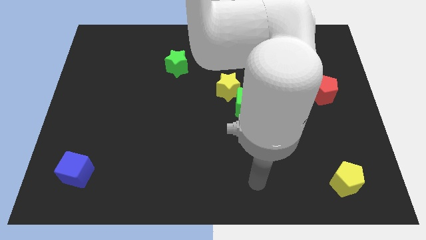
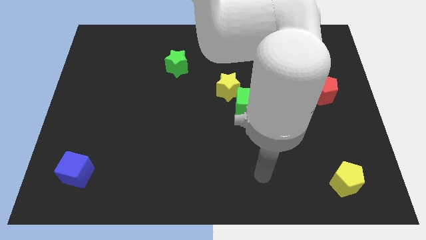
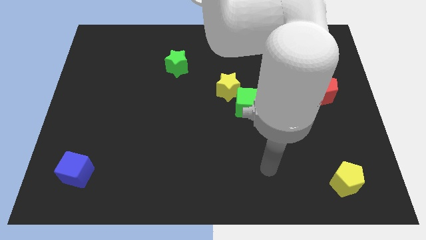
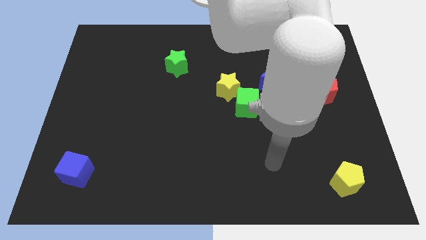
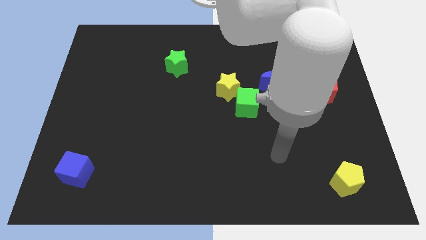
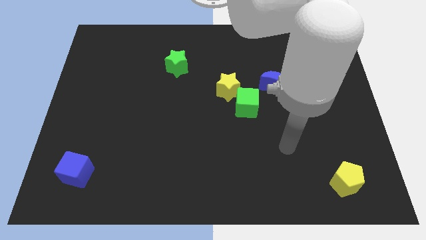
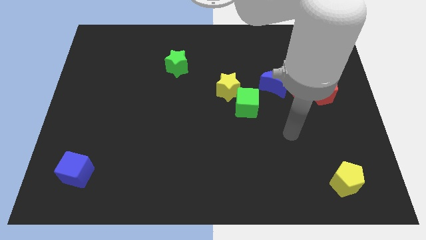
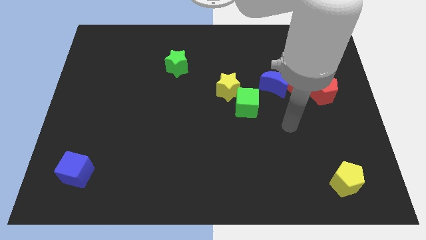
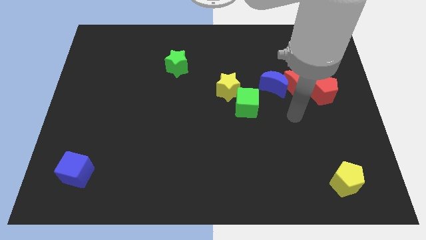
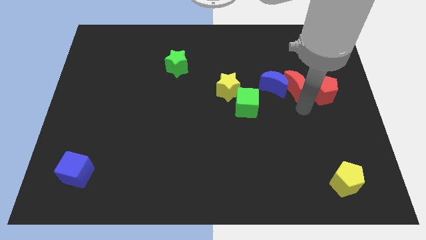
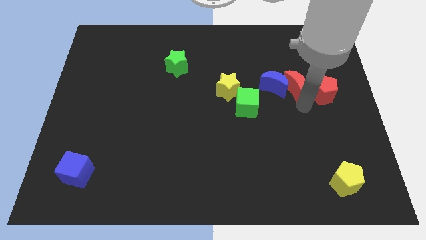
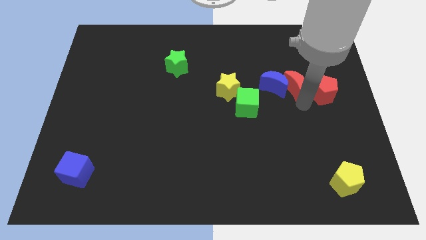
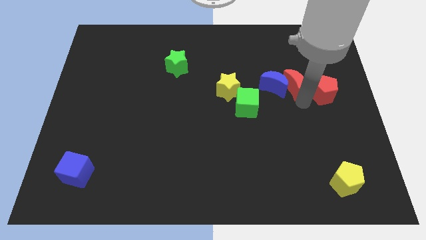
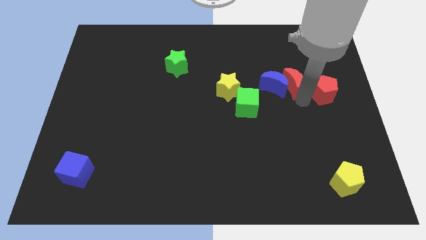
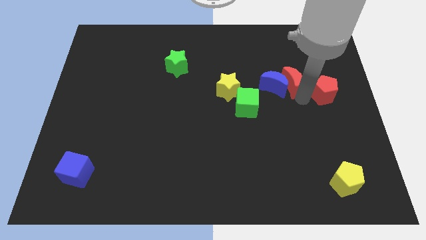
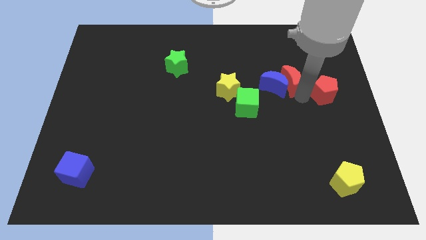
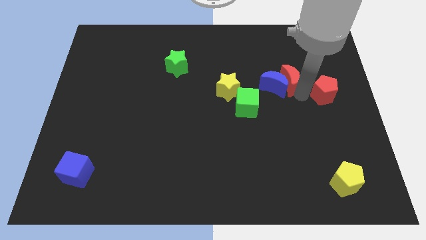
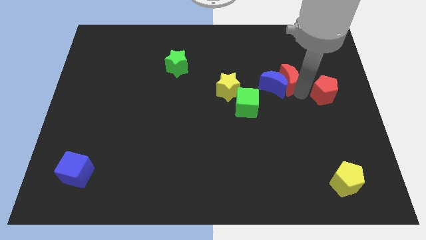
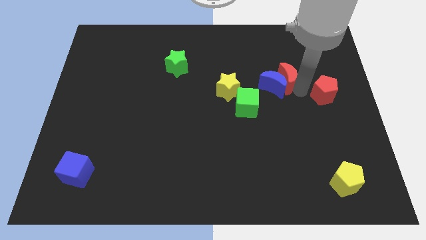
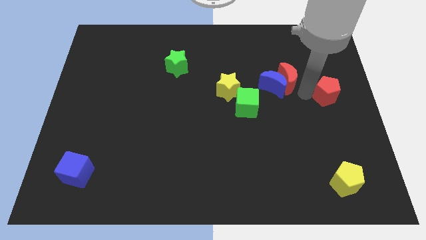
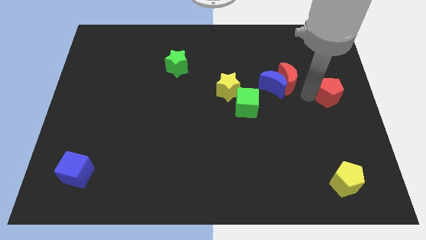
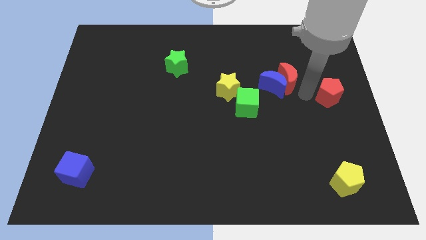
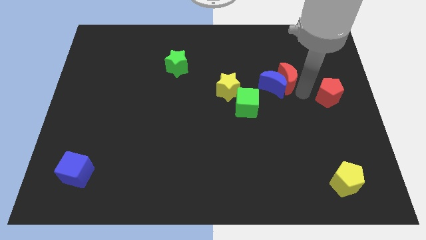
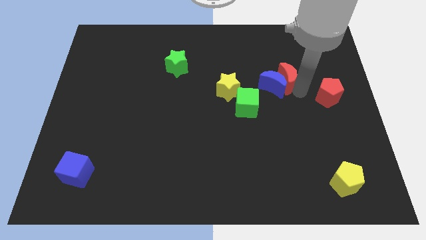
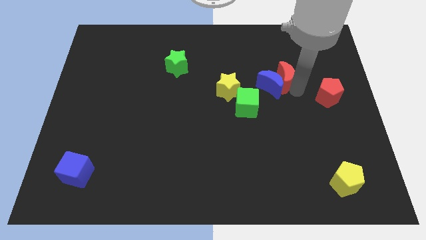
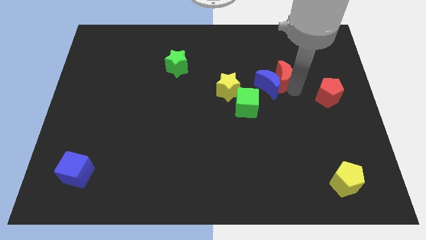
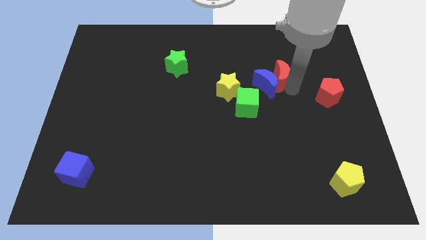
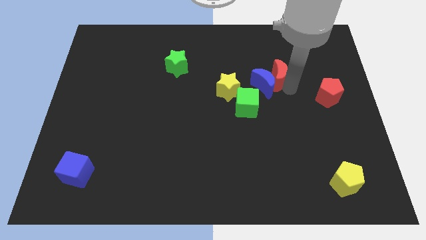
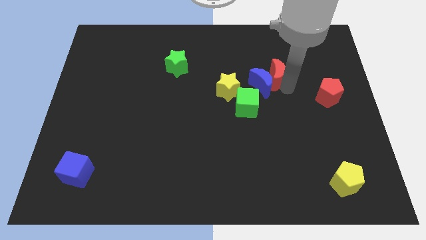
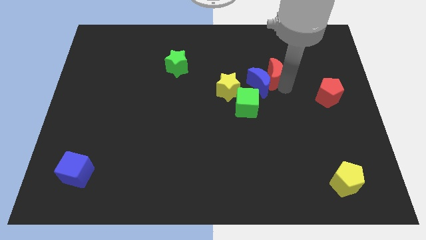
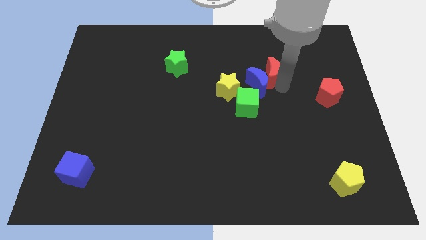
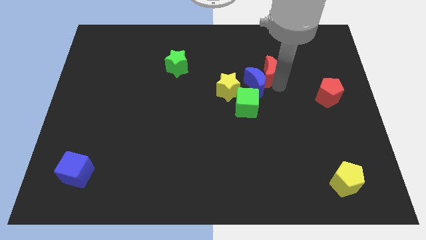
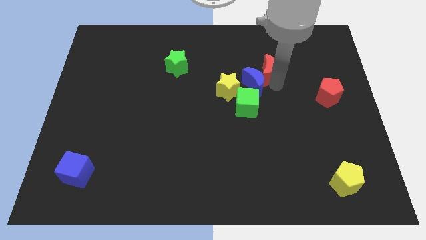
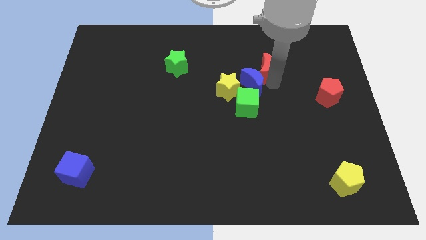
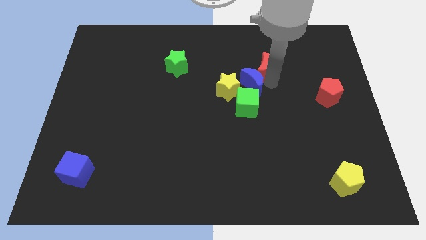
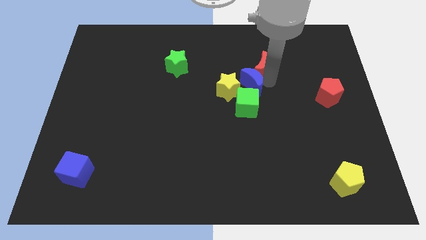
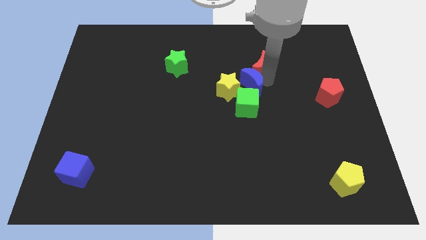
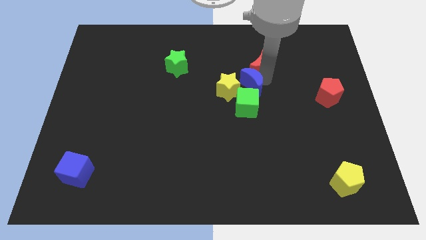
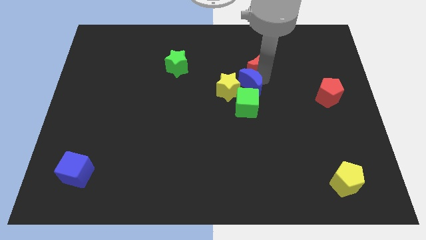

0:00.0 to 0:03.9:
separate the red moon from the blue moon and red pentagon

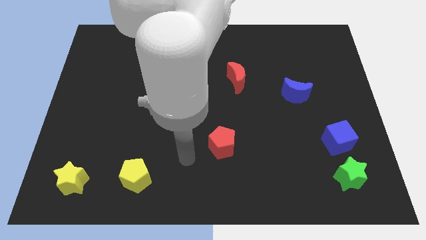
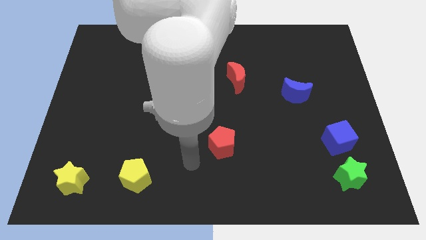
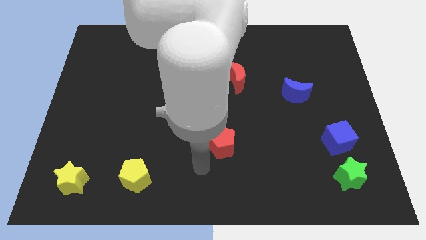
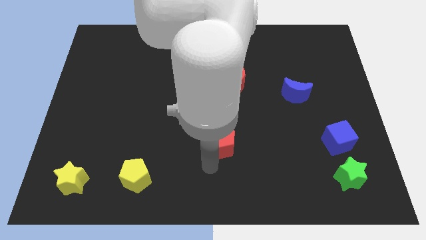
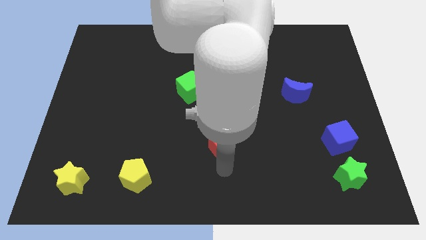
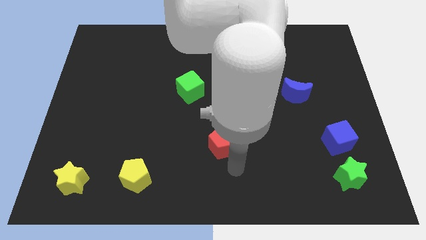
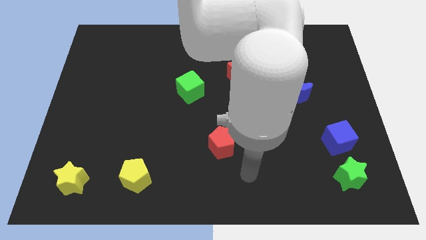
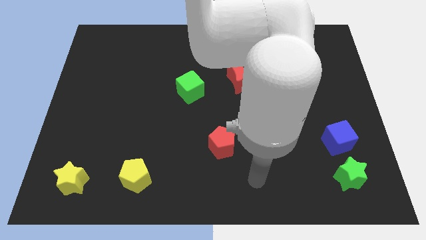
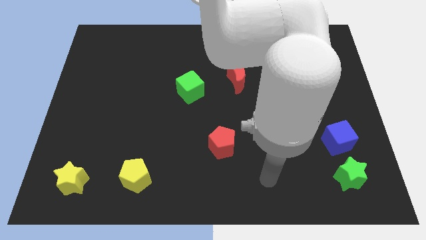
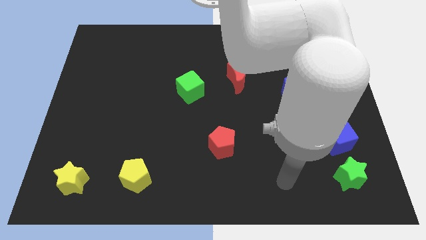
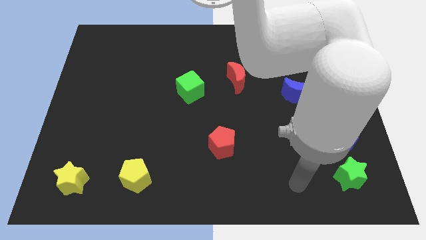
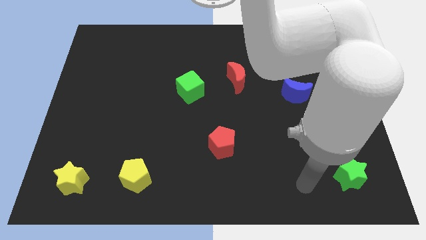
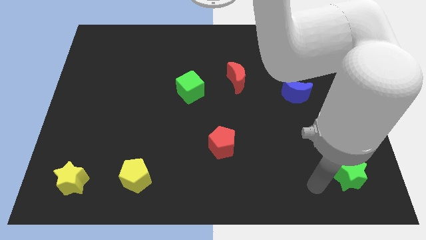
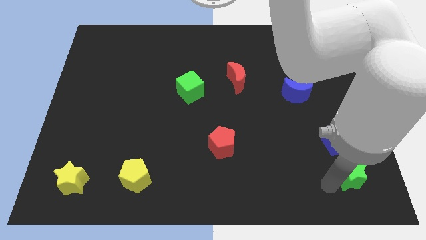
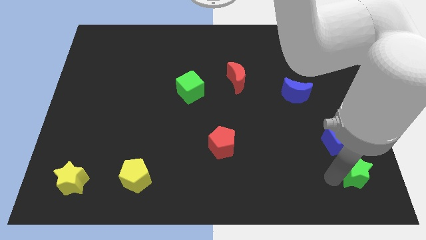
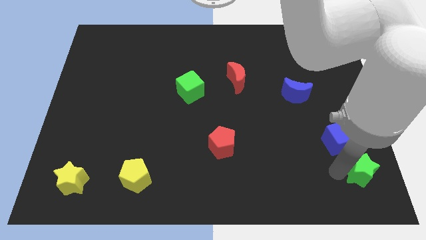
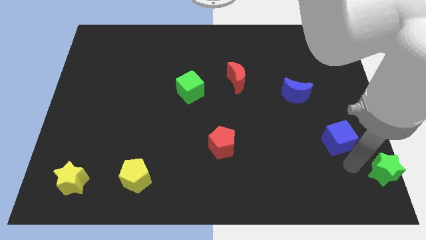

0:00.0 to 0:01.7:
pull the blue cube apart from the green star

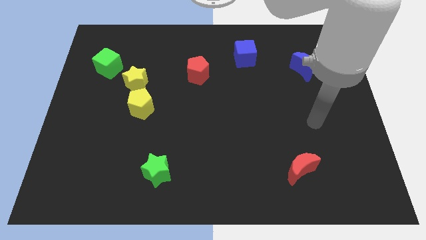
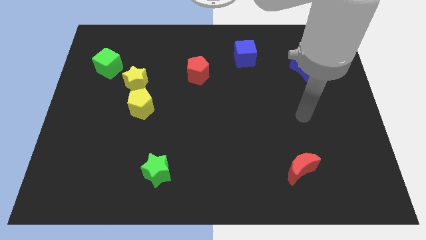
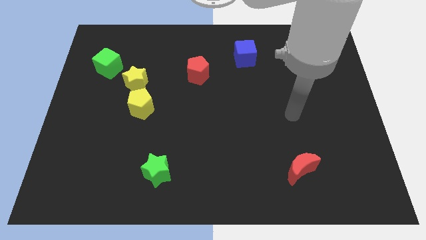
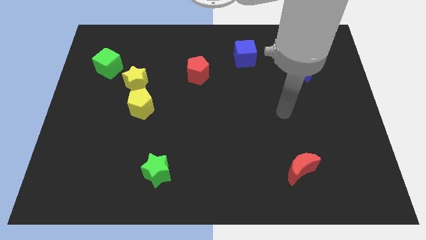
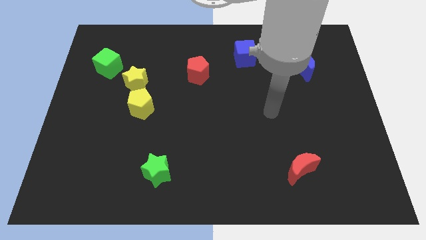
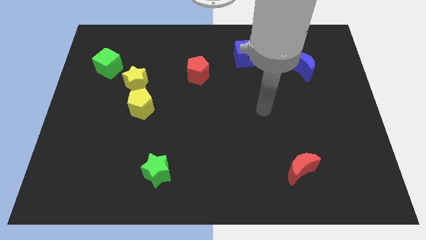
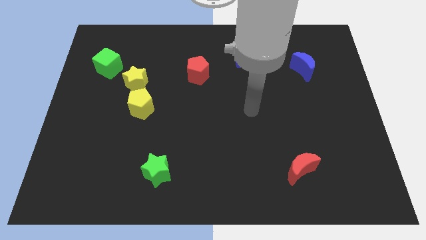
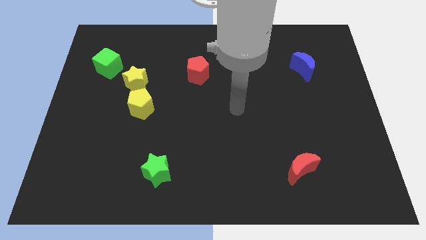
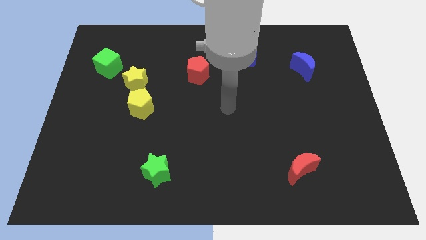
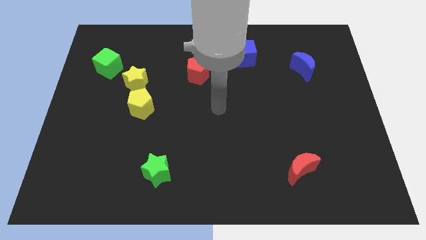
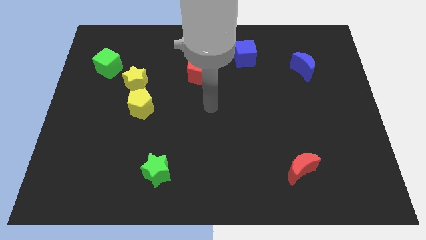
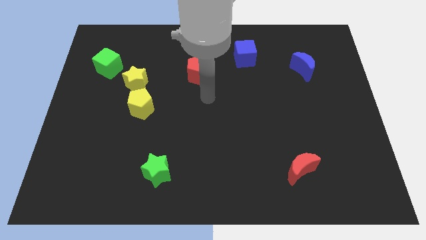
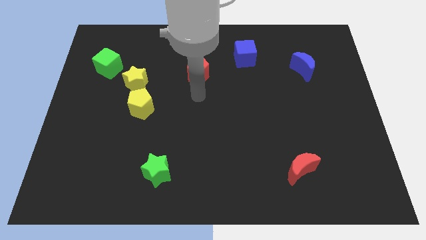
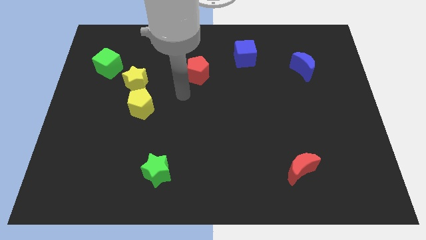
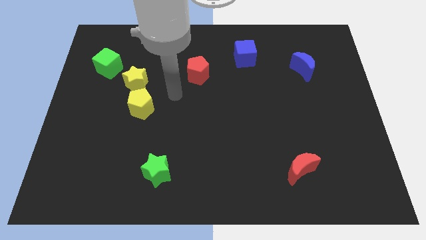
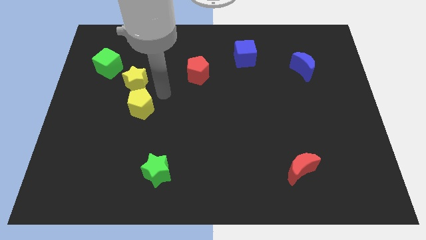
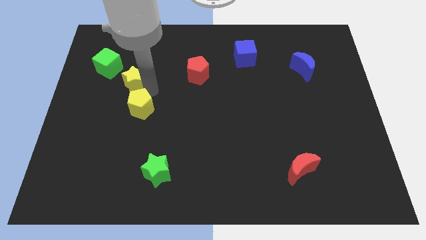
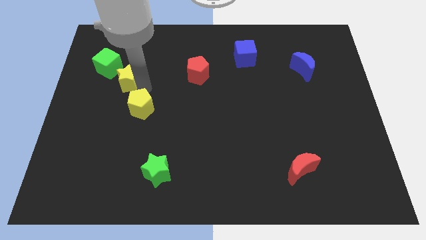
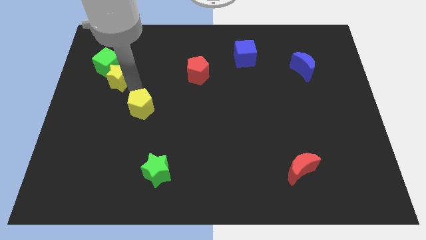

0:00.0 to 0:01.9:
move the yellow pentagon away from the yellow star

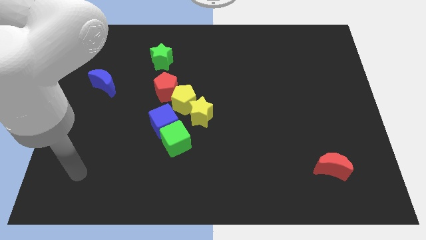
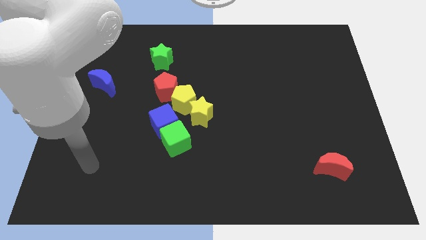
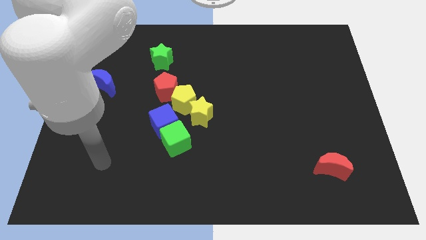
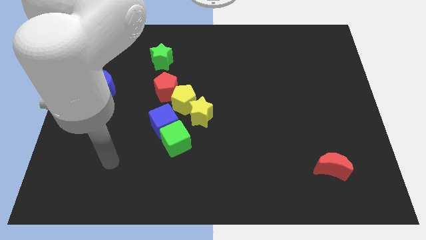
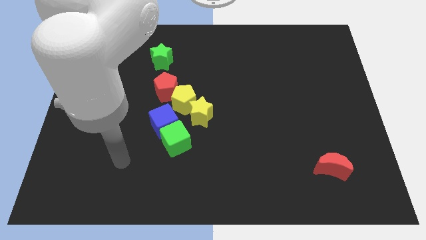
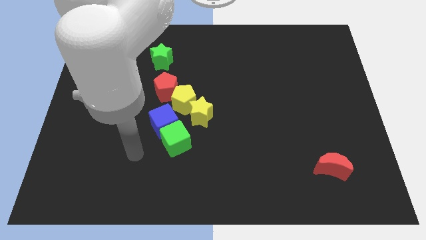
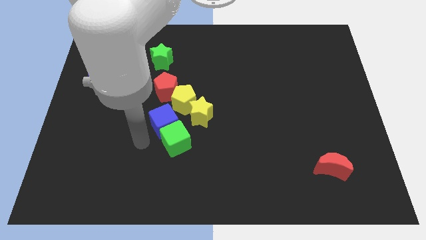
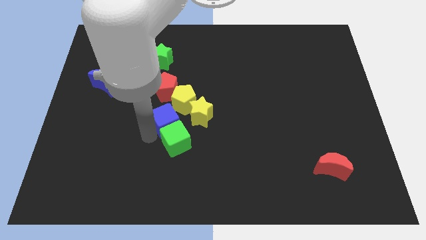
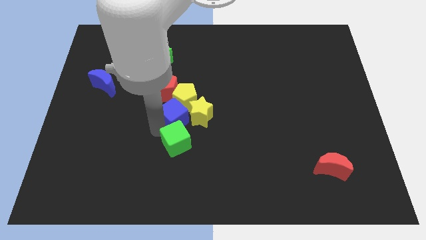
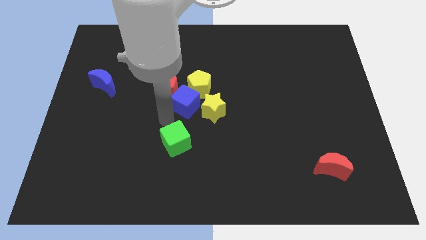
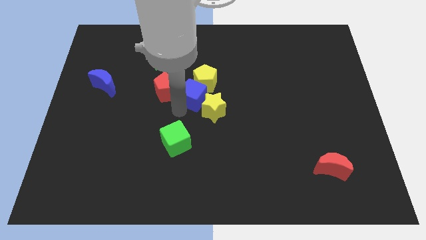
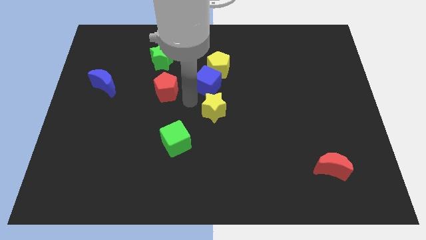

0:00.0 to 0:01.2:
separate the yellow pentagon from the yellow star, red pentagon, and blue cube

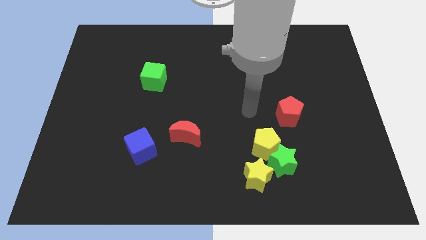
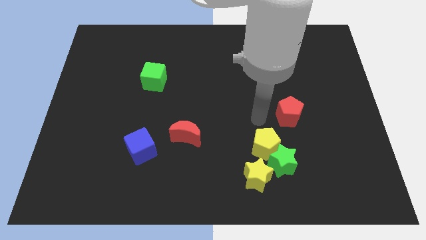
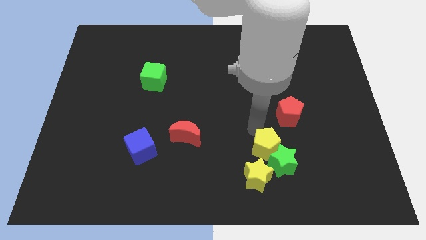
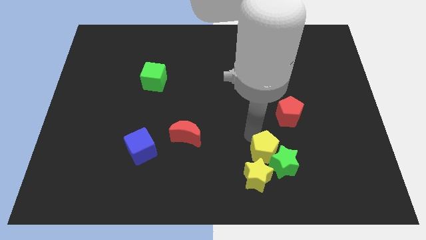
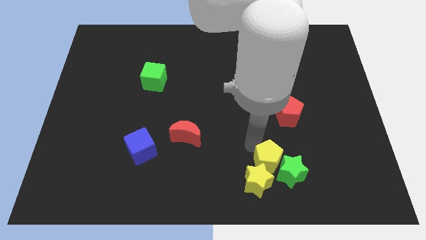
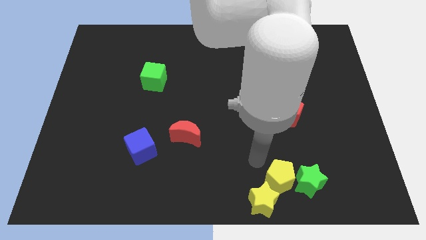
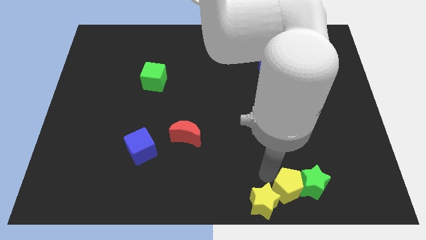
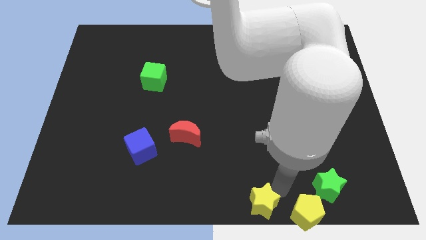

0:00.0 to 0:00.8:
move the green star away from the yellow pentagon and yellow star
